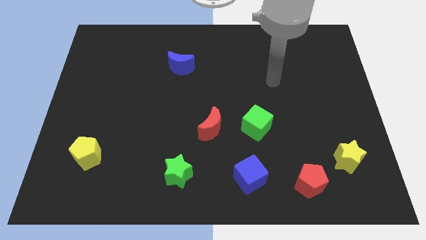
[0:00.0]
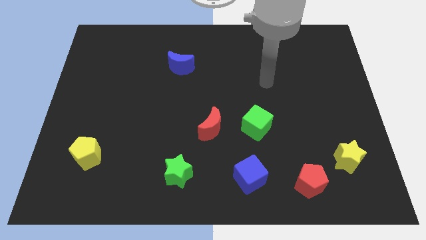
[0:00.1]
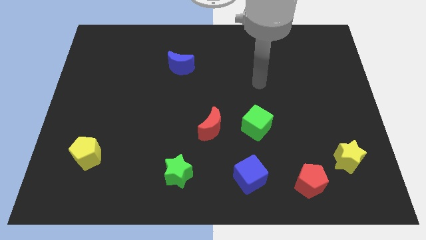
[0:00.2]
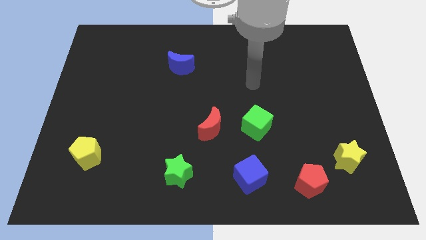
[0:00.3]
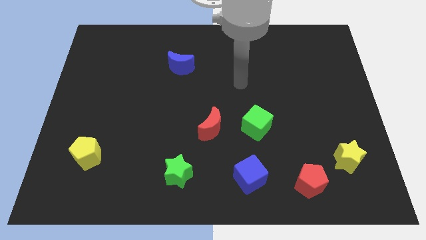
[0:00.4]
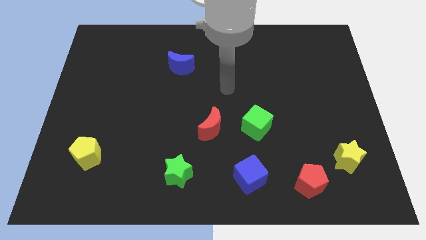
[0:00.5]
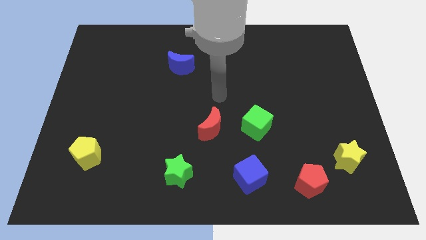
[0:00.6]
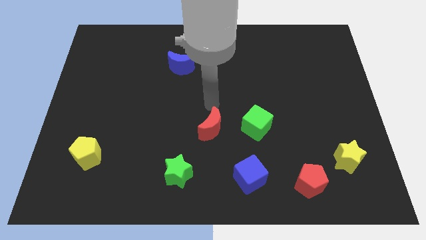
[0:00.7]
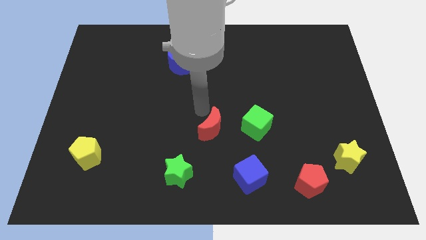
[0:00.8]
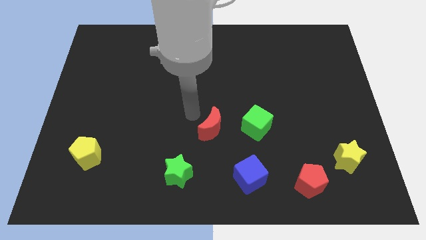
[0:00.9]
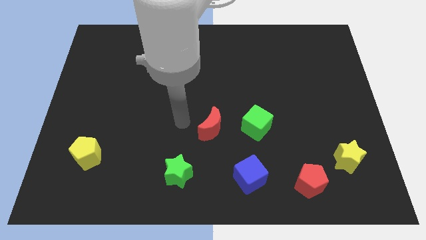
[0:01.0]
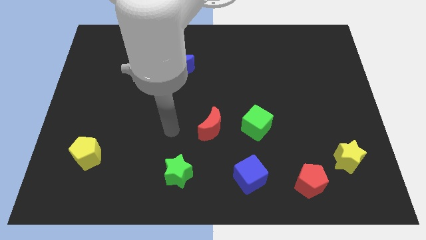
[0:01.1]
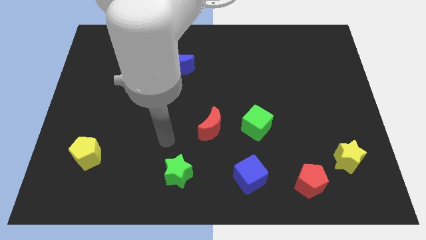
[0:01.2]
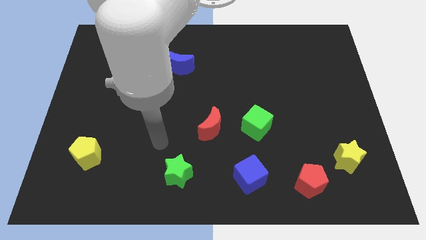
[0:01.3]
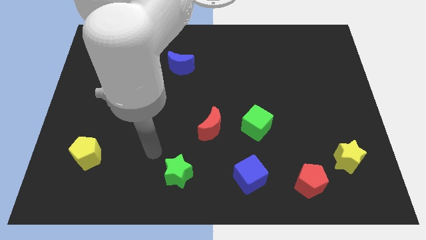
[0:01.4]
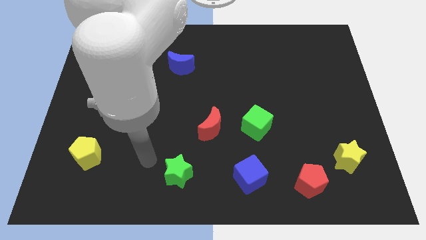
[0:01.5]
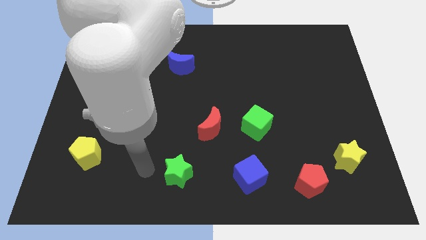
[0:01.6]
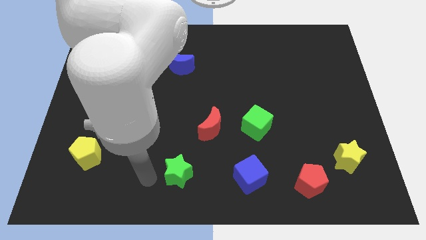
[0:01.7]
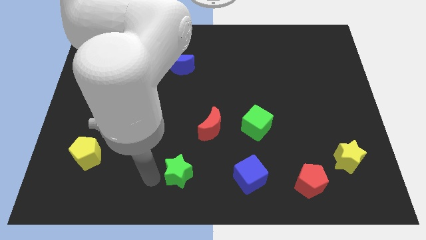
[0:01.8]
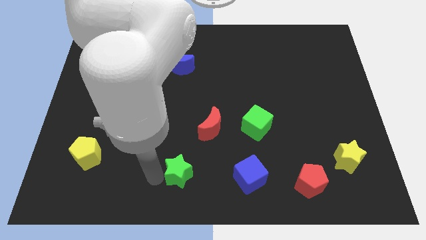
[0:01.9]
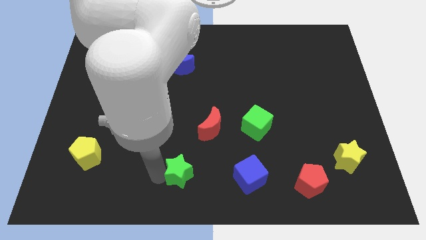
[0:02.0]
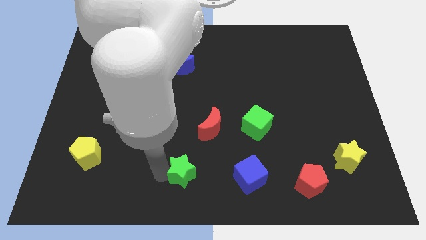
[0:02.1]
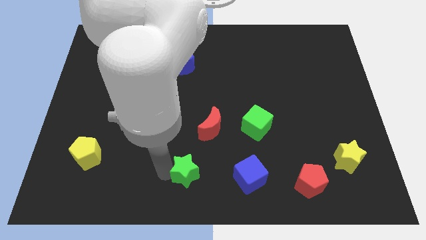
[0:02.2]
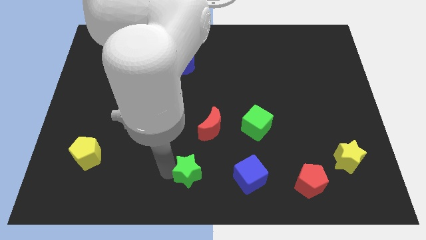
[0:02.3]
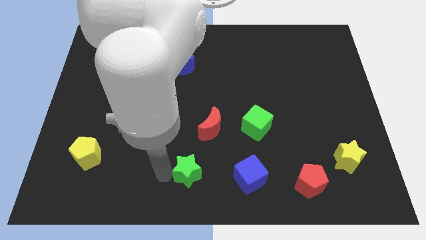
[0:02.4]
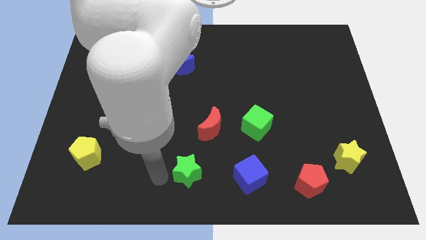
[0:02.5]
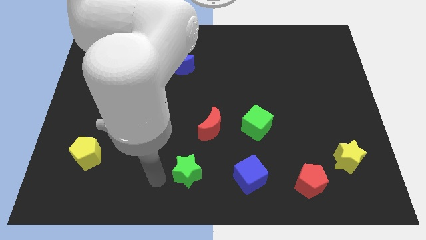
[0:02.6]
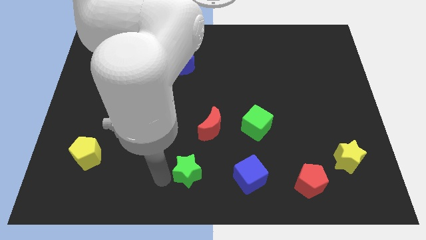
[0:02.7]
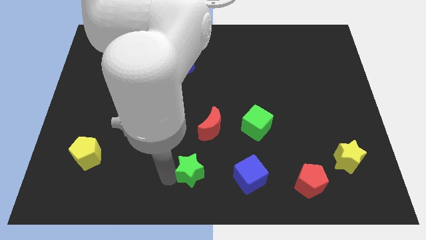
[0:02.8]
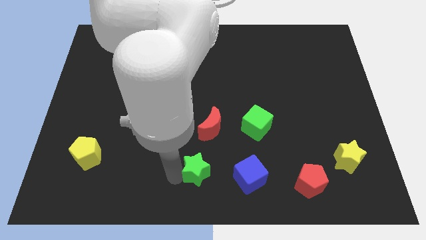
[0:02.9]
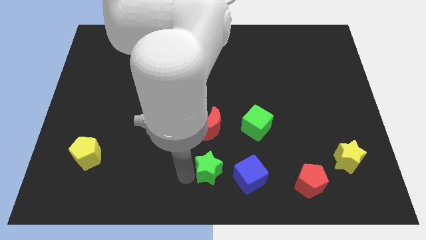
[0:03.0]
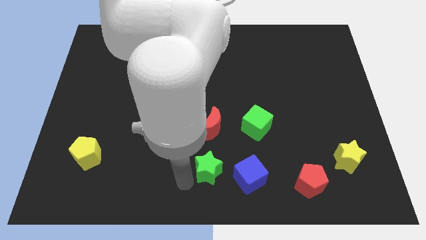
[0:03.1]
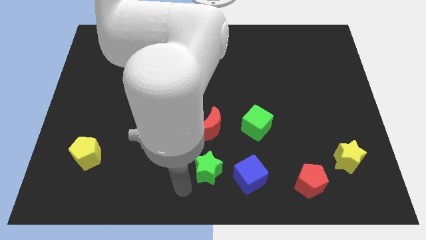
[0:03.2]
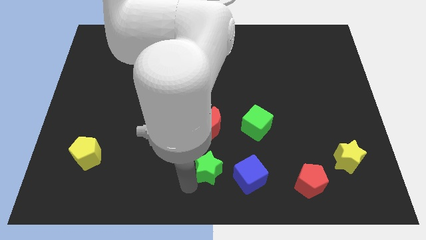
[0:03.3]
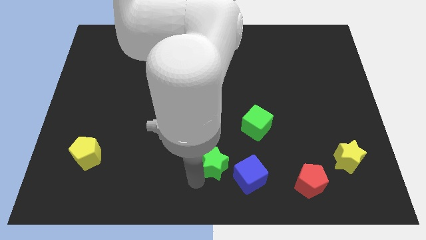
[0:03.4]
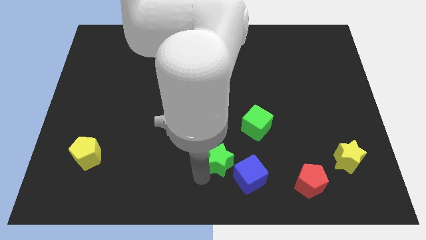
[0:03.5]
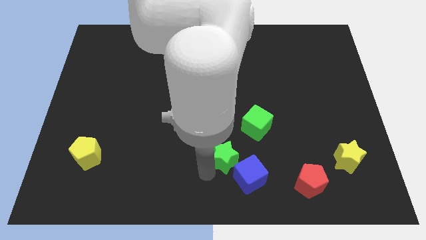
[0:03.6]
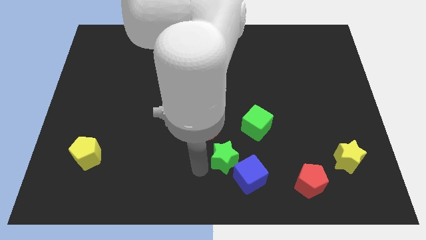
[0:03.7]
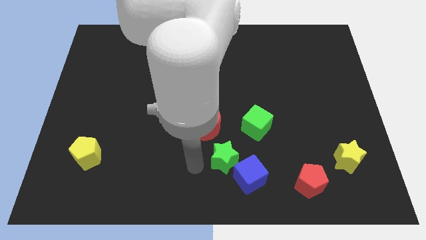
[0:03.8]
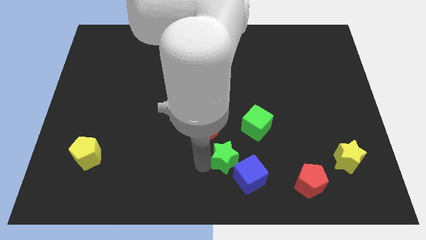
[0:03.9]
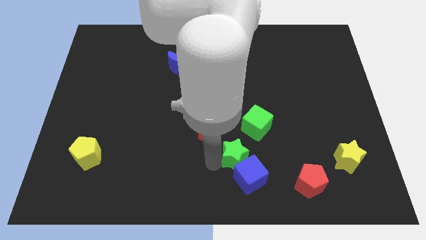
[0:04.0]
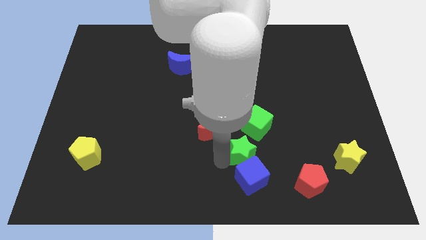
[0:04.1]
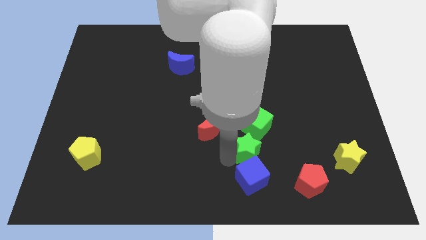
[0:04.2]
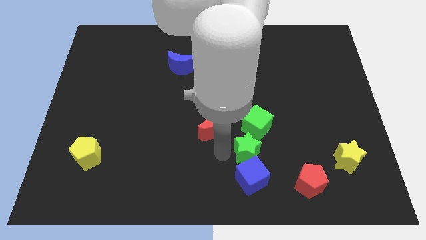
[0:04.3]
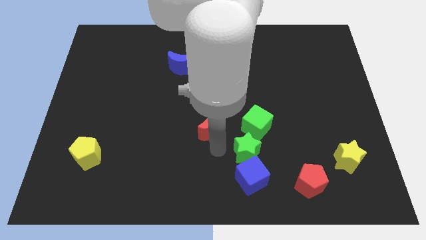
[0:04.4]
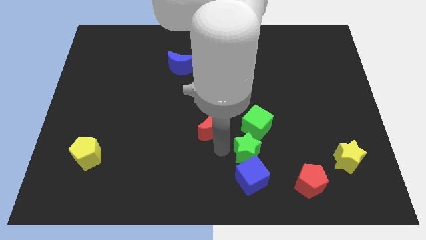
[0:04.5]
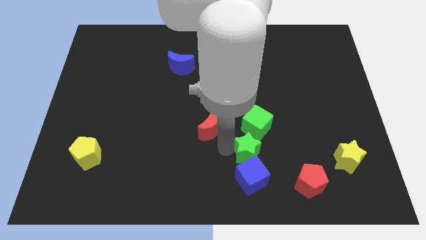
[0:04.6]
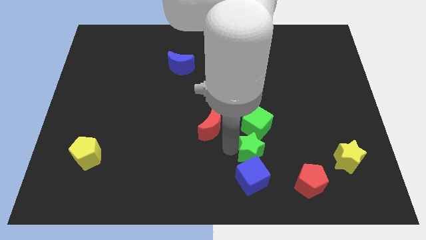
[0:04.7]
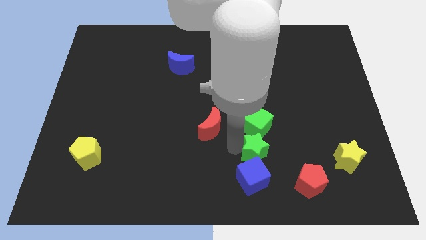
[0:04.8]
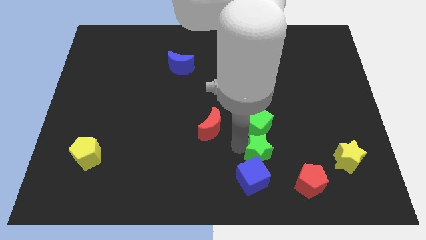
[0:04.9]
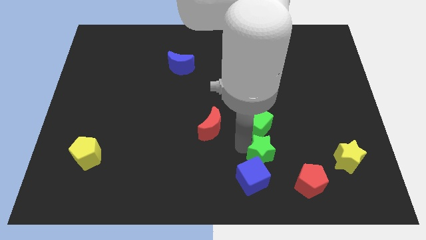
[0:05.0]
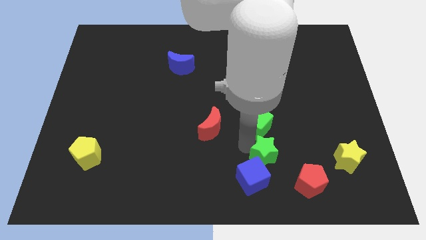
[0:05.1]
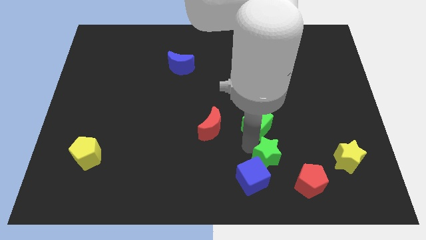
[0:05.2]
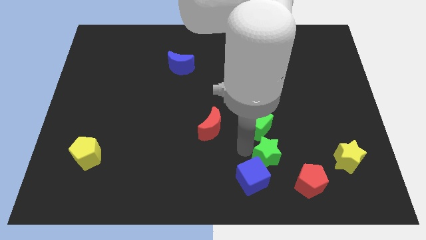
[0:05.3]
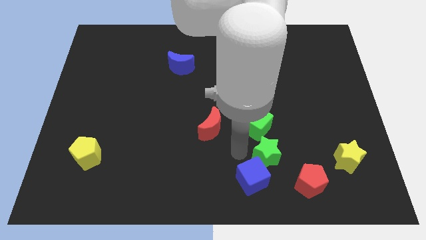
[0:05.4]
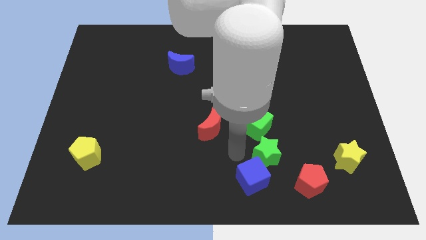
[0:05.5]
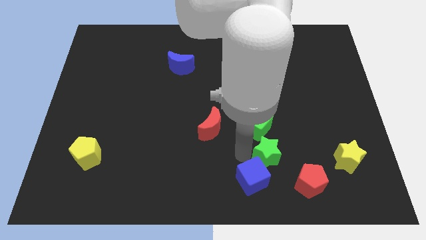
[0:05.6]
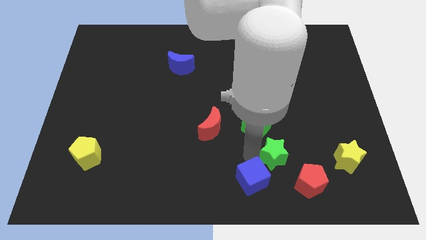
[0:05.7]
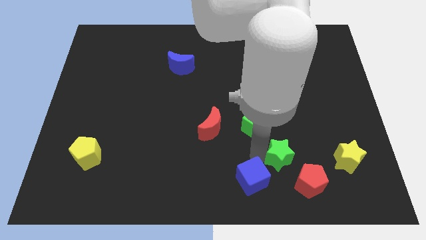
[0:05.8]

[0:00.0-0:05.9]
push the green star to the right

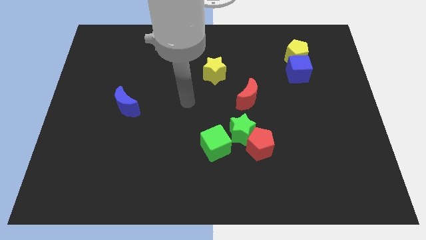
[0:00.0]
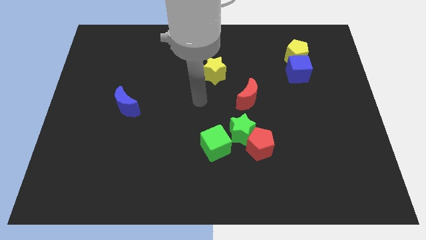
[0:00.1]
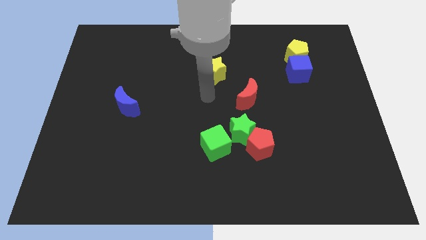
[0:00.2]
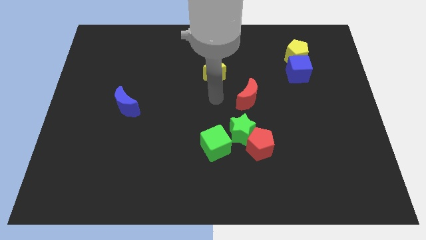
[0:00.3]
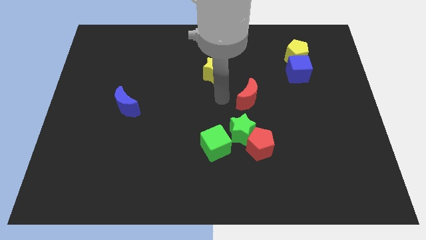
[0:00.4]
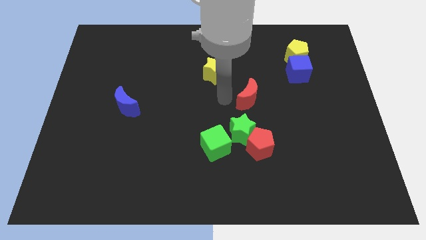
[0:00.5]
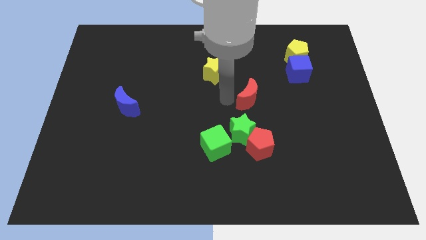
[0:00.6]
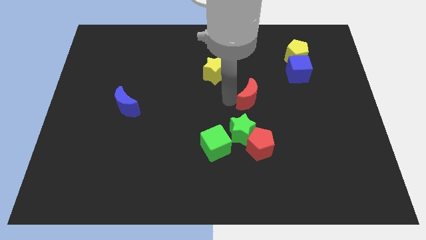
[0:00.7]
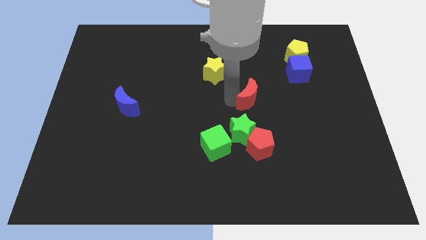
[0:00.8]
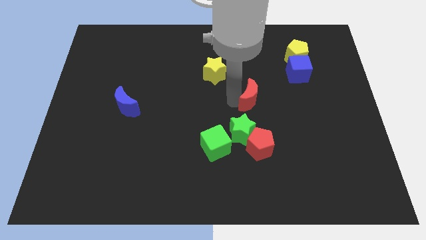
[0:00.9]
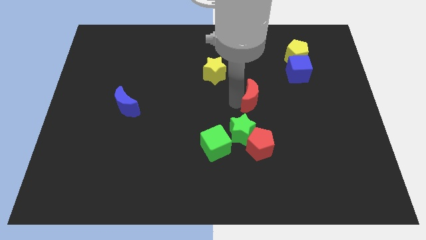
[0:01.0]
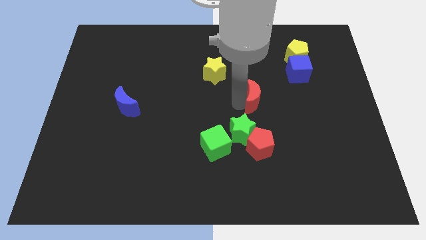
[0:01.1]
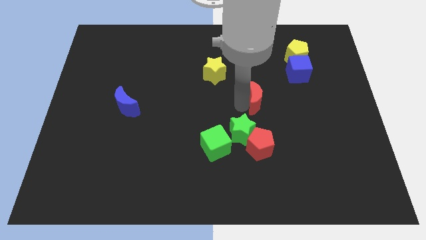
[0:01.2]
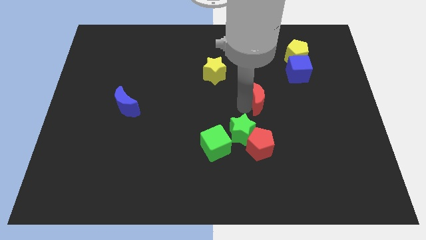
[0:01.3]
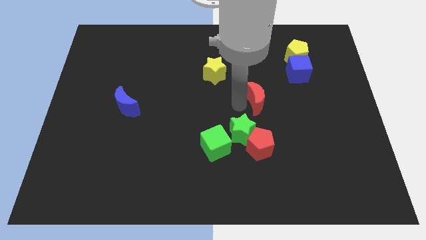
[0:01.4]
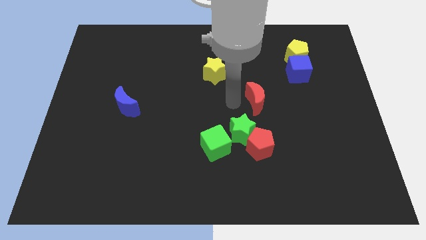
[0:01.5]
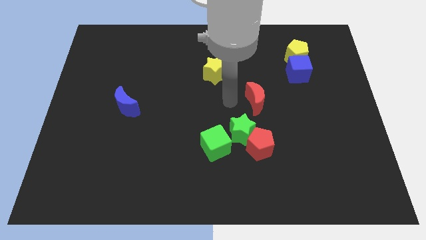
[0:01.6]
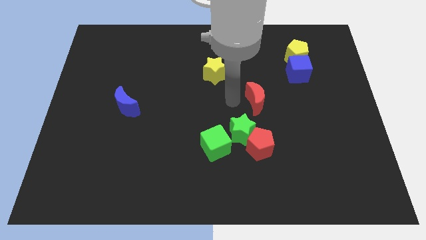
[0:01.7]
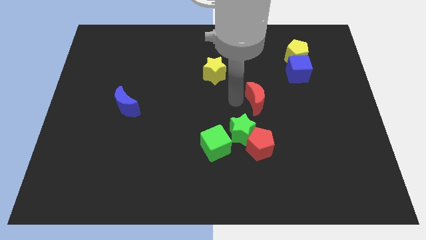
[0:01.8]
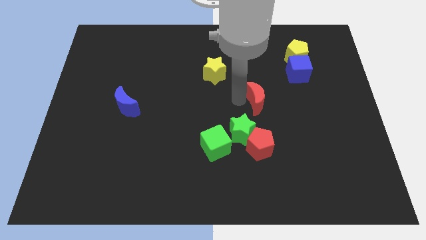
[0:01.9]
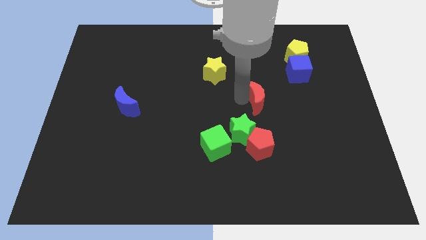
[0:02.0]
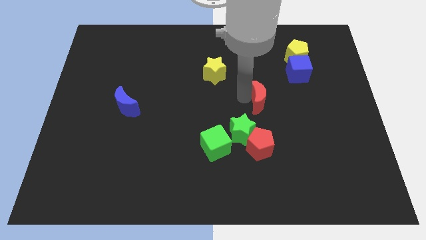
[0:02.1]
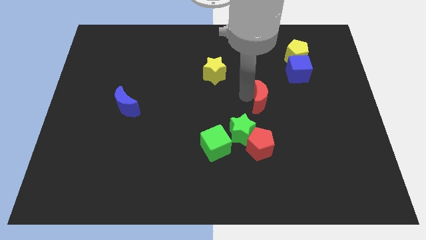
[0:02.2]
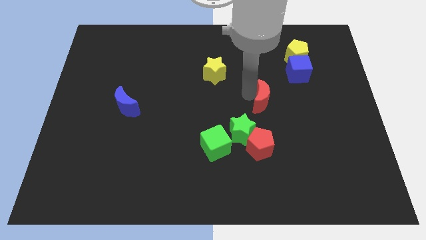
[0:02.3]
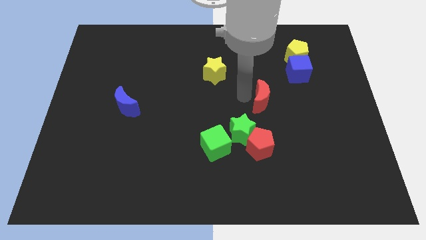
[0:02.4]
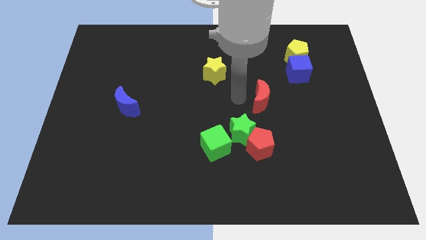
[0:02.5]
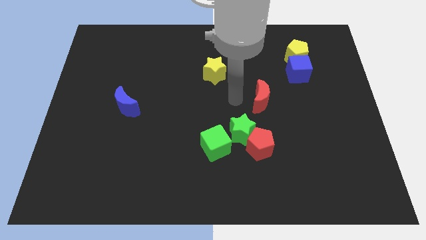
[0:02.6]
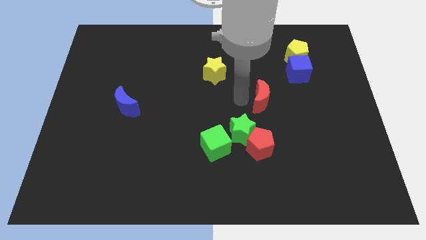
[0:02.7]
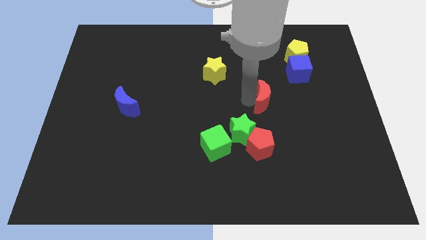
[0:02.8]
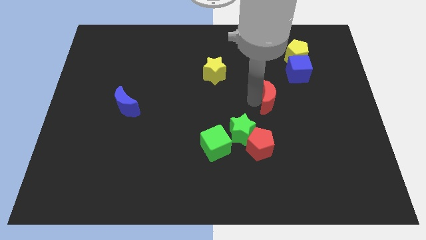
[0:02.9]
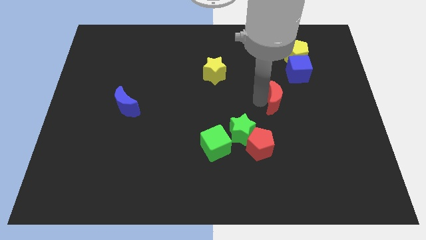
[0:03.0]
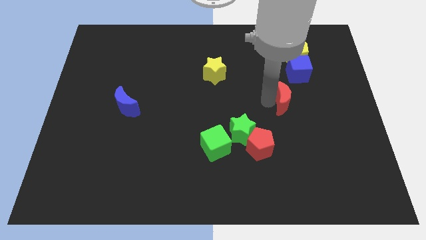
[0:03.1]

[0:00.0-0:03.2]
push the red moon a bit to the right
